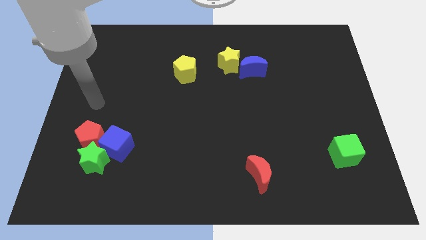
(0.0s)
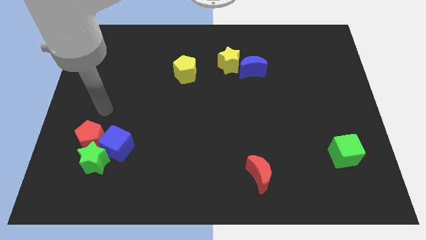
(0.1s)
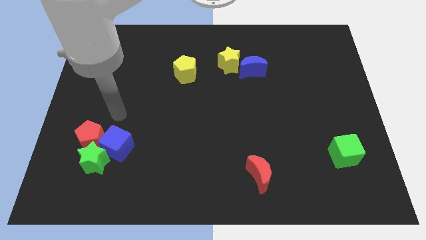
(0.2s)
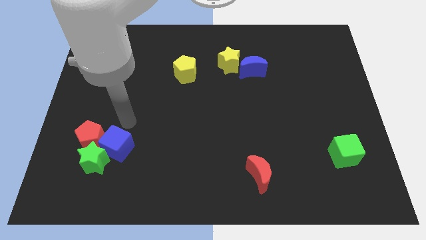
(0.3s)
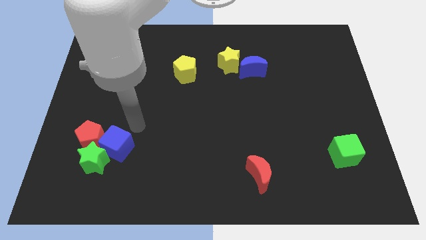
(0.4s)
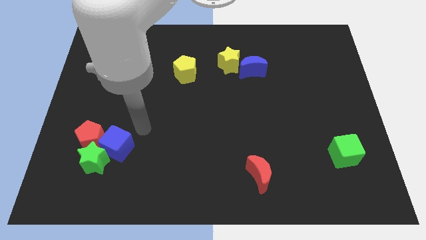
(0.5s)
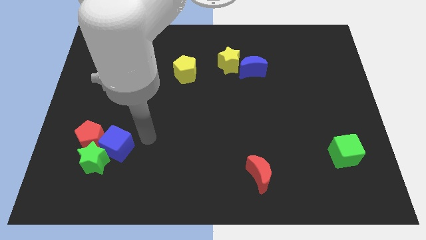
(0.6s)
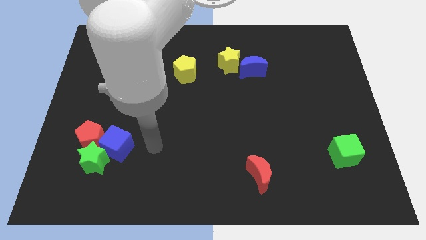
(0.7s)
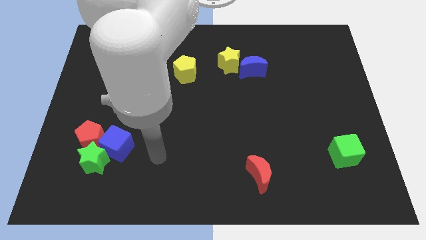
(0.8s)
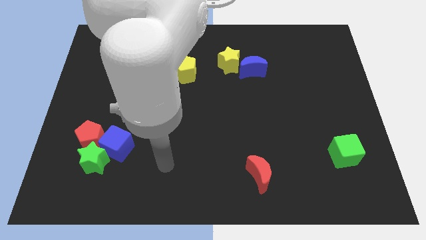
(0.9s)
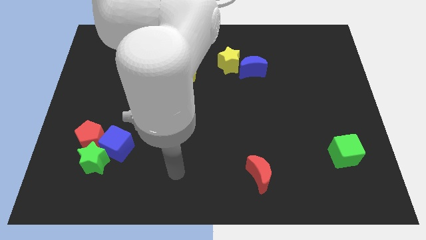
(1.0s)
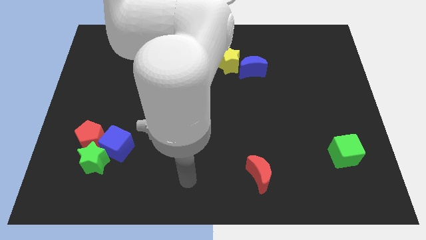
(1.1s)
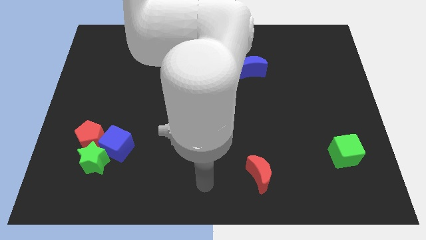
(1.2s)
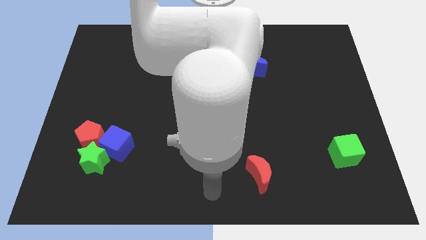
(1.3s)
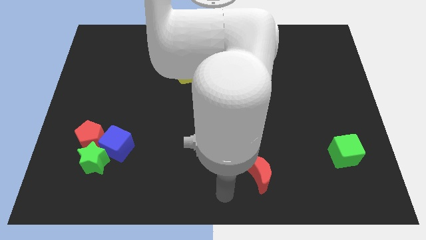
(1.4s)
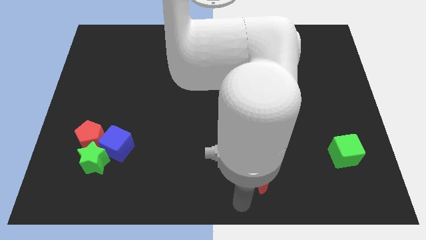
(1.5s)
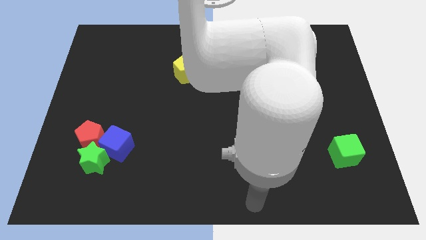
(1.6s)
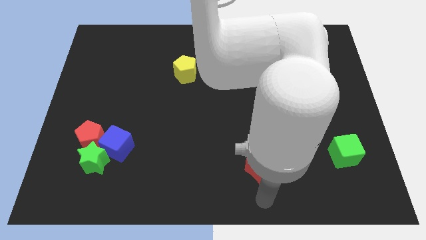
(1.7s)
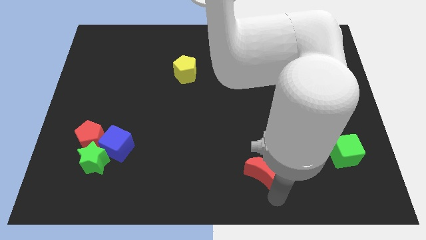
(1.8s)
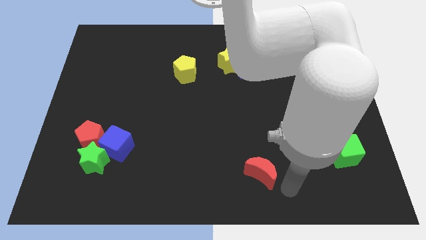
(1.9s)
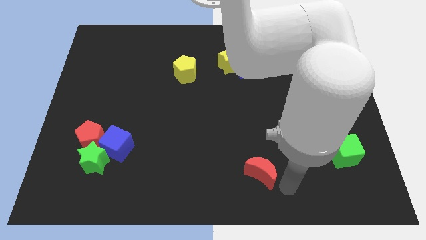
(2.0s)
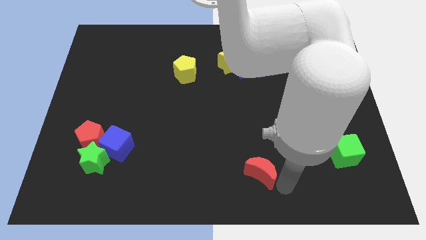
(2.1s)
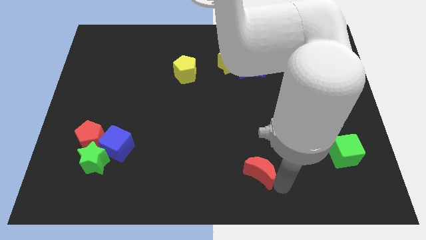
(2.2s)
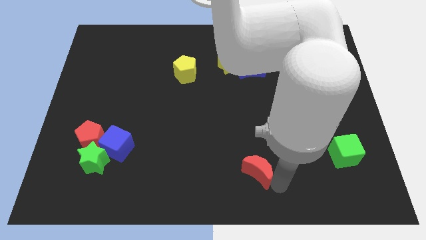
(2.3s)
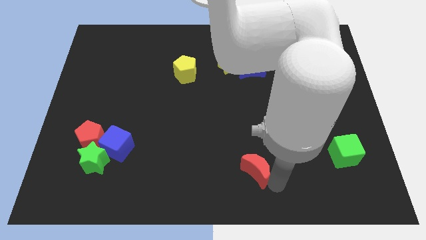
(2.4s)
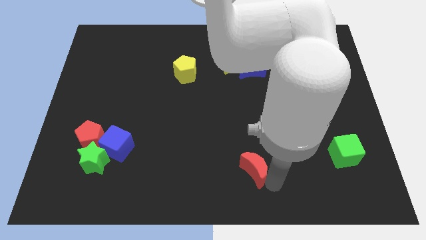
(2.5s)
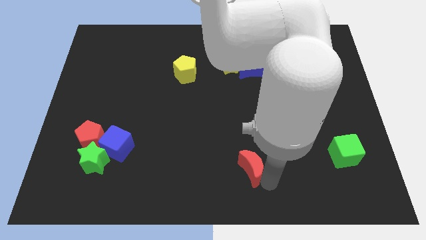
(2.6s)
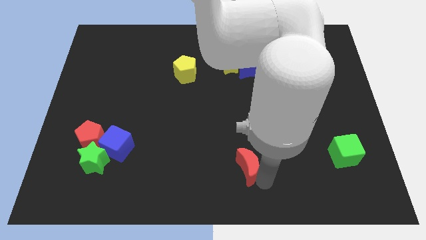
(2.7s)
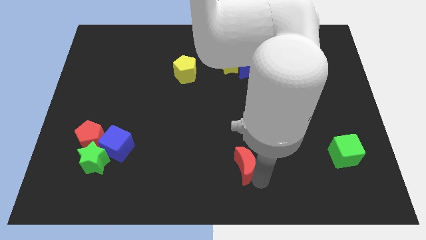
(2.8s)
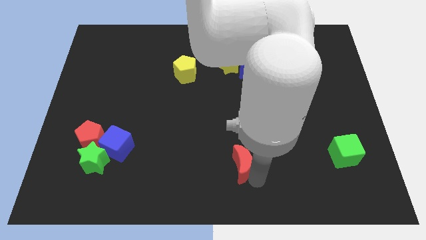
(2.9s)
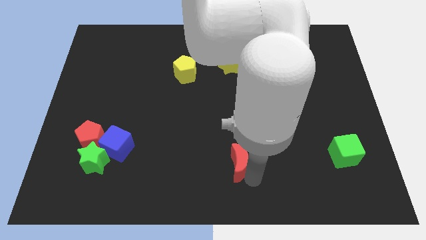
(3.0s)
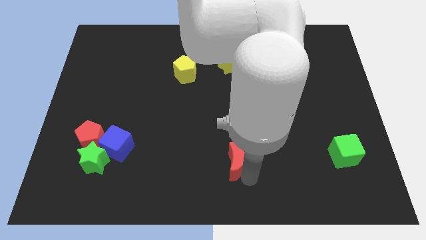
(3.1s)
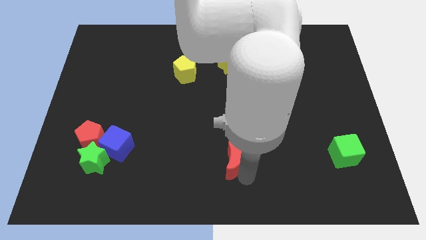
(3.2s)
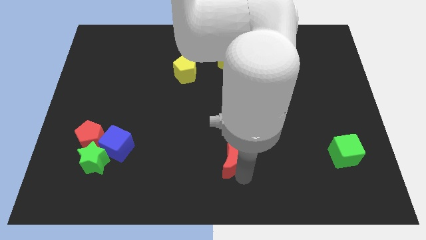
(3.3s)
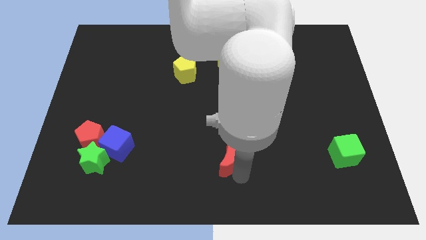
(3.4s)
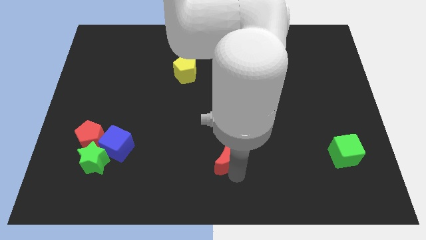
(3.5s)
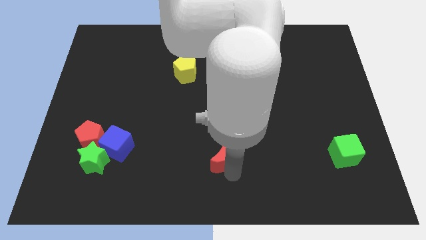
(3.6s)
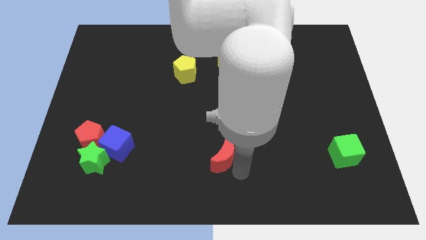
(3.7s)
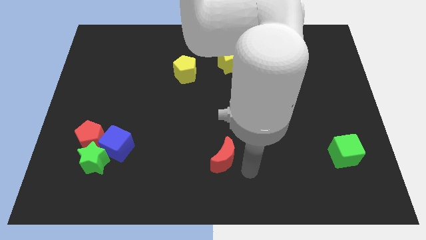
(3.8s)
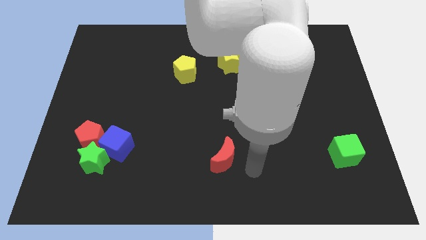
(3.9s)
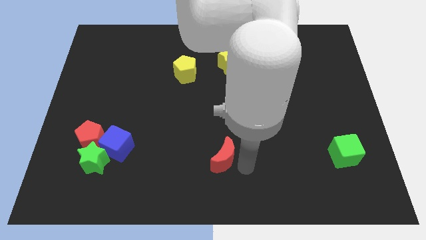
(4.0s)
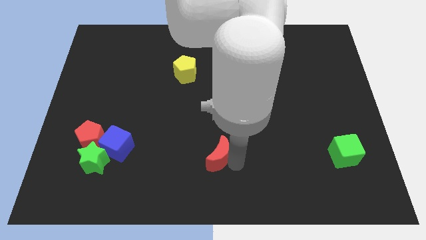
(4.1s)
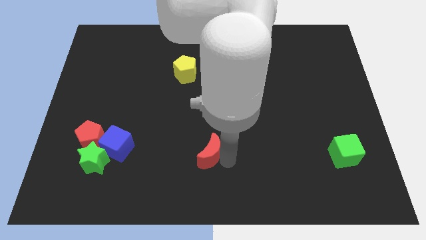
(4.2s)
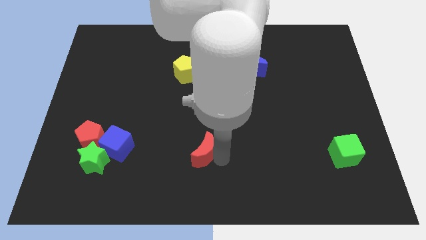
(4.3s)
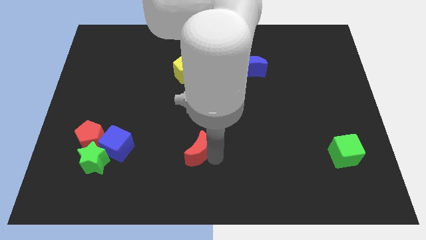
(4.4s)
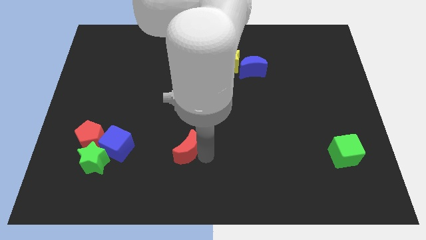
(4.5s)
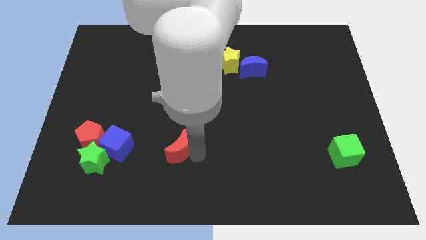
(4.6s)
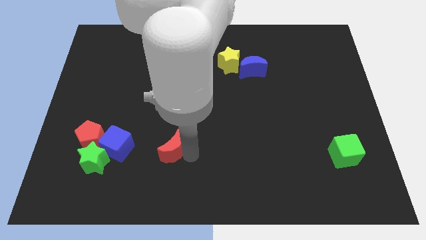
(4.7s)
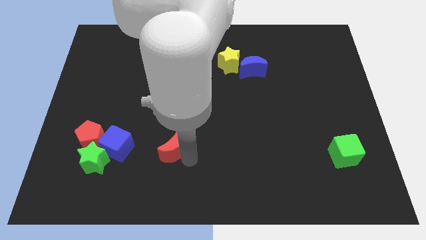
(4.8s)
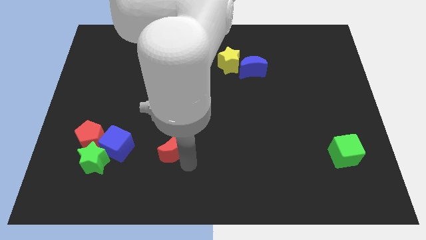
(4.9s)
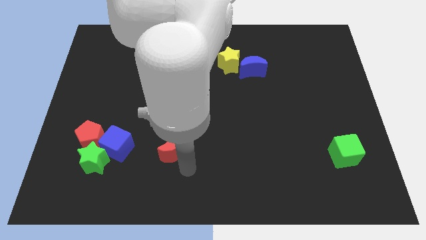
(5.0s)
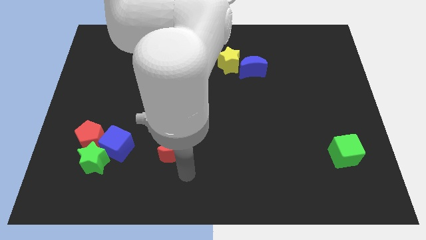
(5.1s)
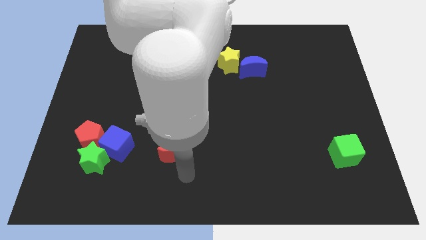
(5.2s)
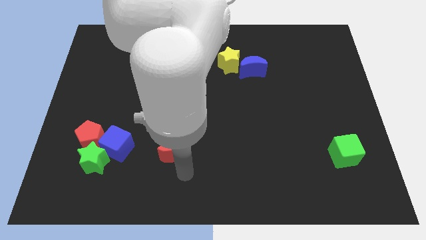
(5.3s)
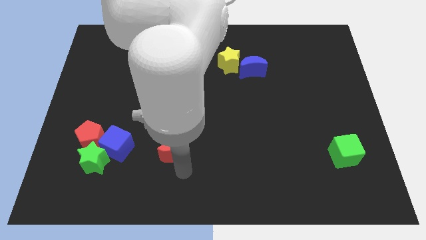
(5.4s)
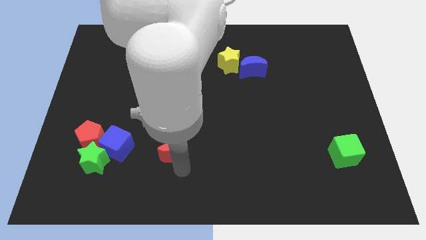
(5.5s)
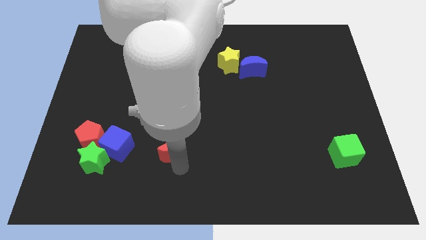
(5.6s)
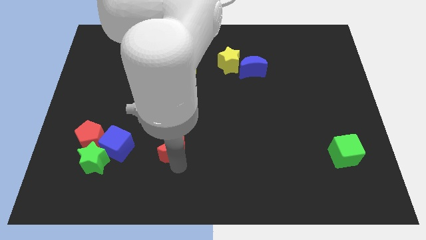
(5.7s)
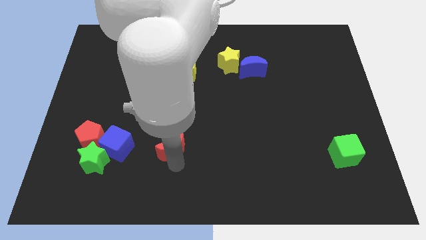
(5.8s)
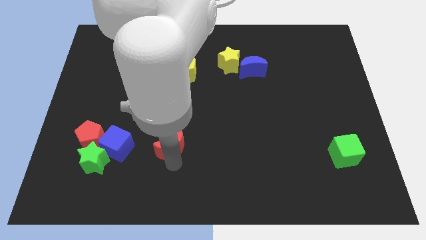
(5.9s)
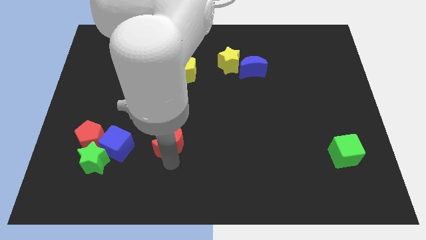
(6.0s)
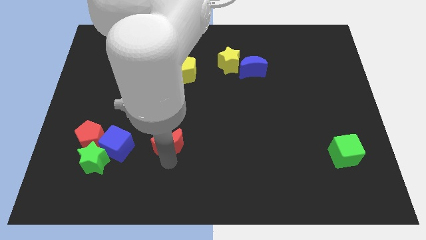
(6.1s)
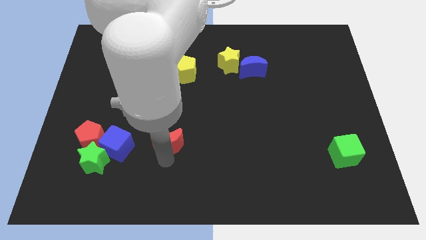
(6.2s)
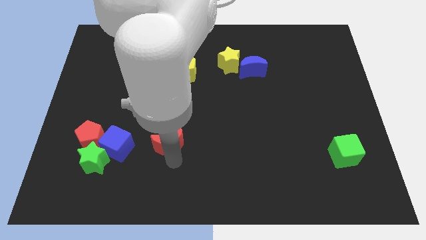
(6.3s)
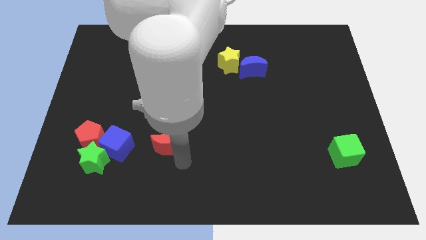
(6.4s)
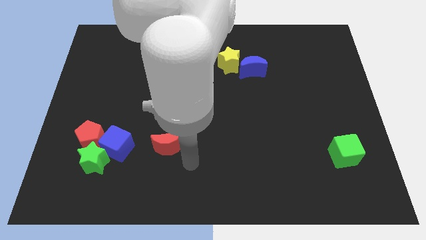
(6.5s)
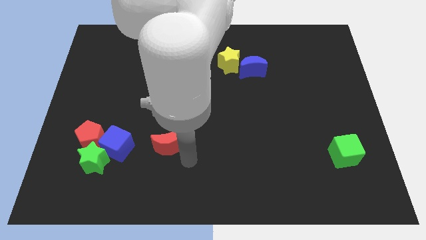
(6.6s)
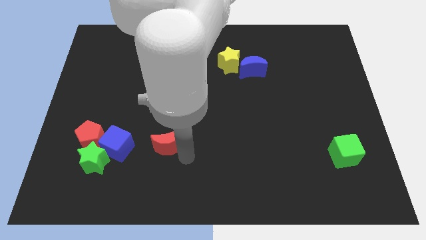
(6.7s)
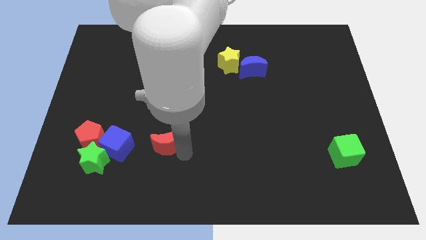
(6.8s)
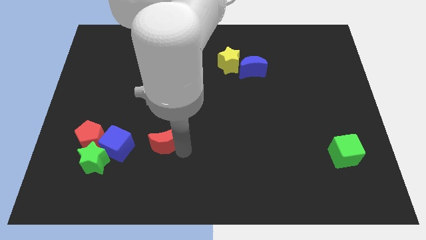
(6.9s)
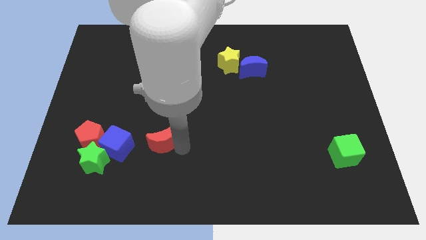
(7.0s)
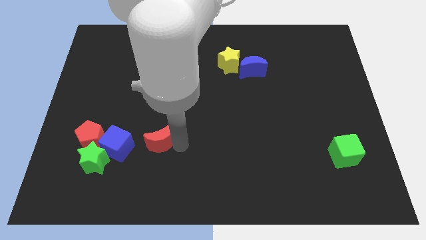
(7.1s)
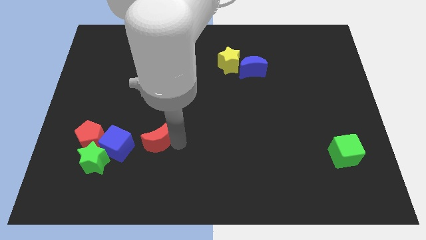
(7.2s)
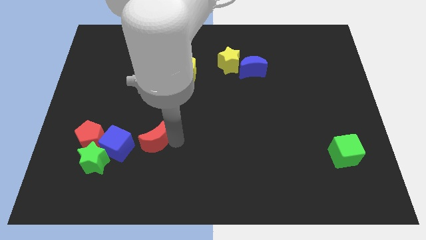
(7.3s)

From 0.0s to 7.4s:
move the red moon diagonally up and to the right of the blue cube
